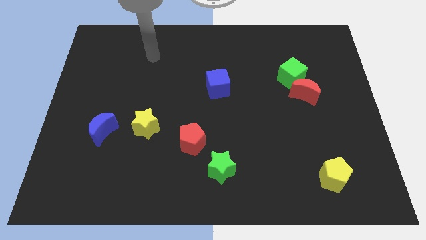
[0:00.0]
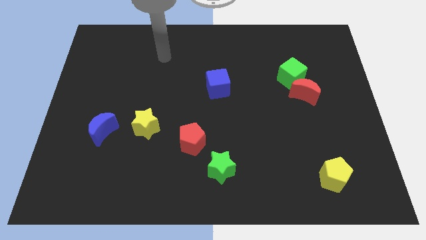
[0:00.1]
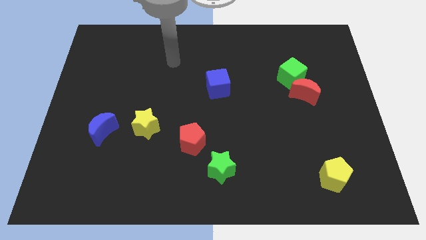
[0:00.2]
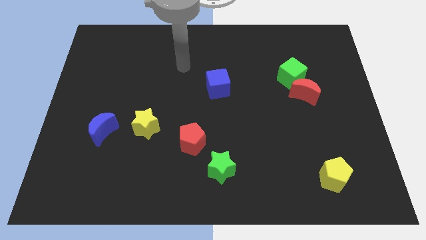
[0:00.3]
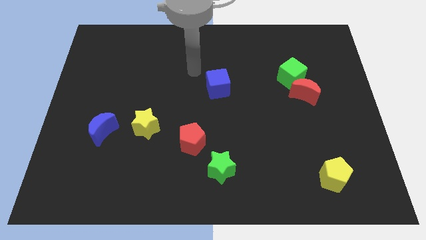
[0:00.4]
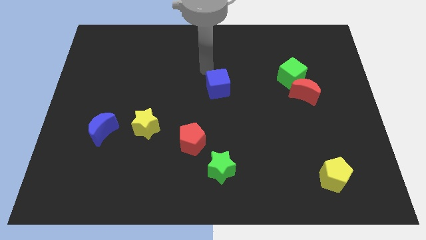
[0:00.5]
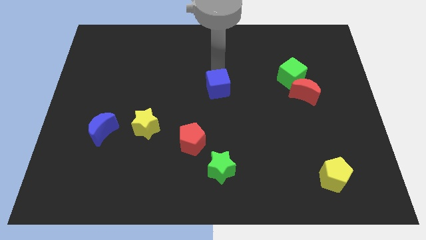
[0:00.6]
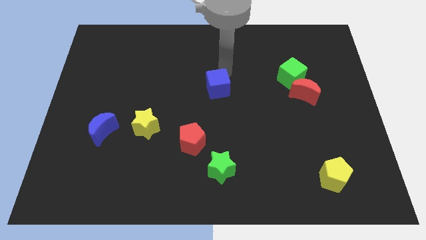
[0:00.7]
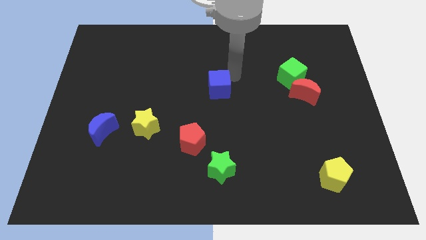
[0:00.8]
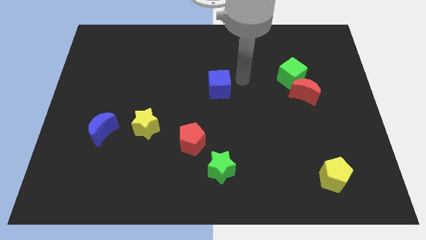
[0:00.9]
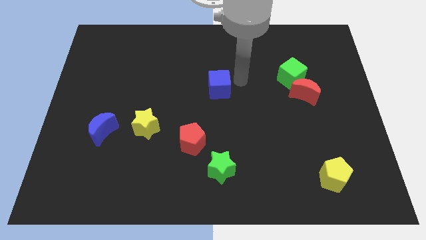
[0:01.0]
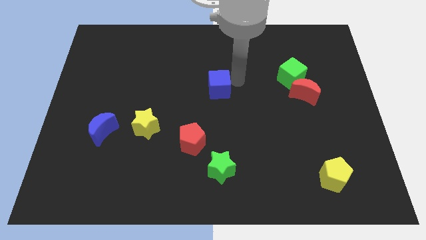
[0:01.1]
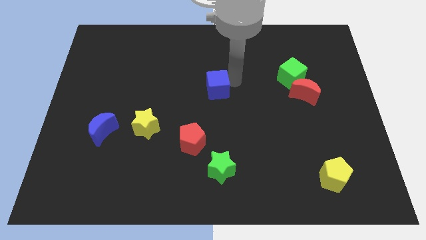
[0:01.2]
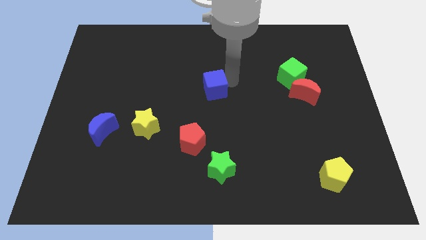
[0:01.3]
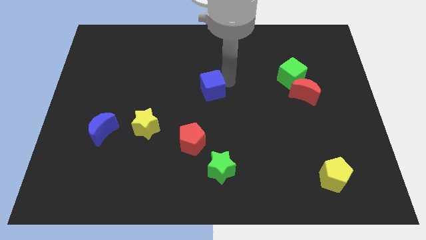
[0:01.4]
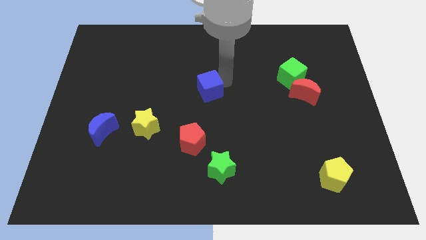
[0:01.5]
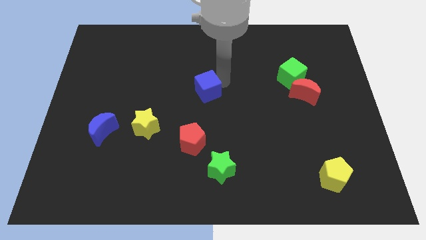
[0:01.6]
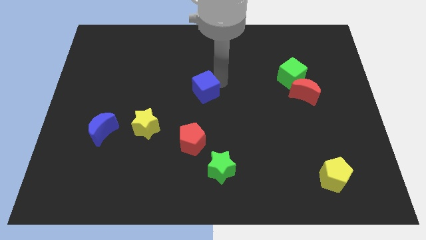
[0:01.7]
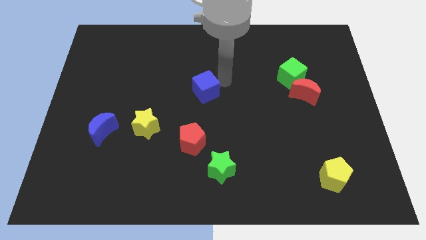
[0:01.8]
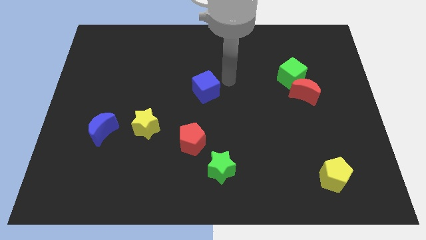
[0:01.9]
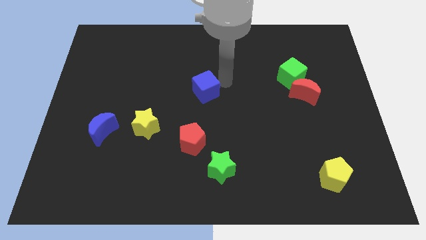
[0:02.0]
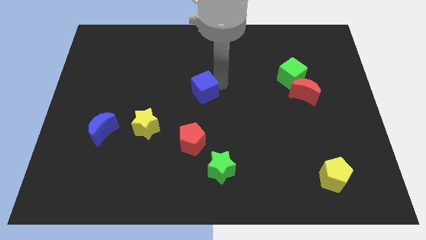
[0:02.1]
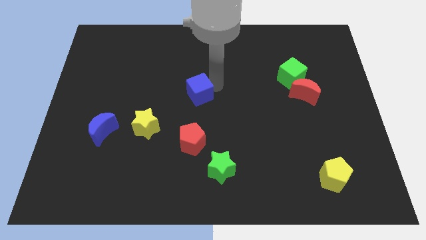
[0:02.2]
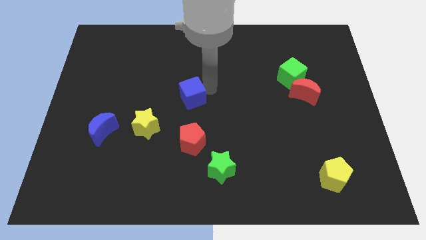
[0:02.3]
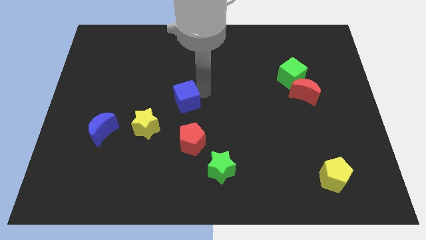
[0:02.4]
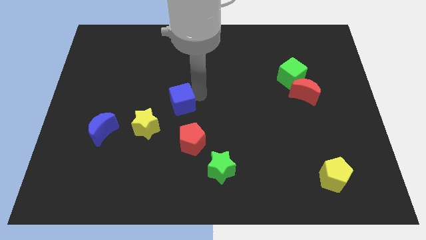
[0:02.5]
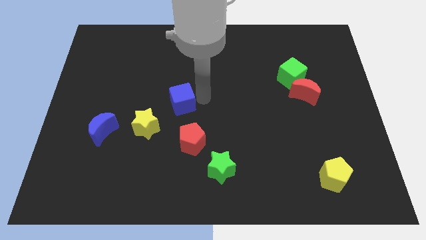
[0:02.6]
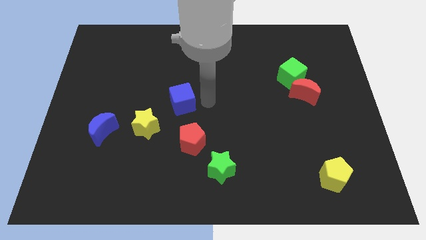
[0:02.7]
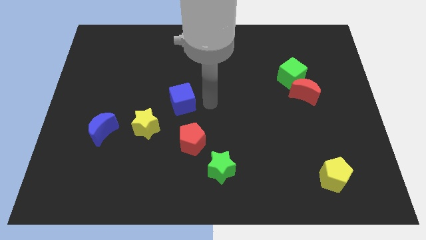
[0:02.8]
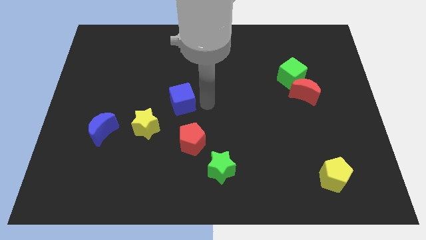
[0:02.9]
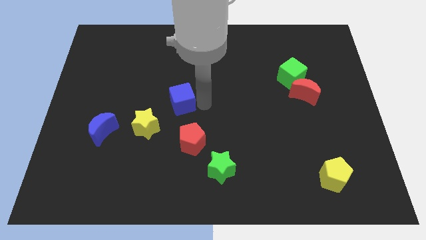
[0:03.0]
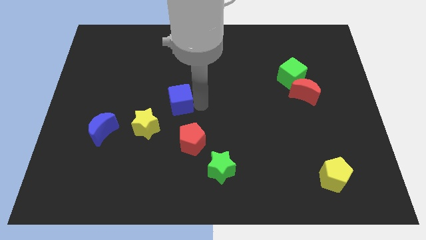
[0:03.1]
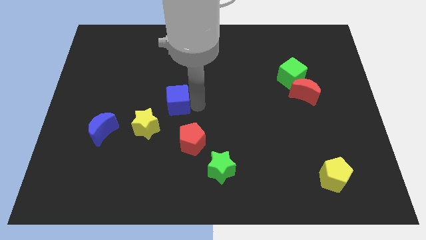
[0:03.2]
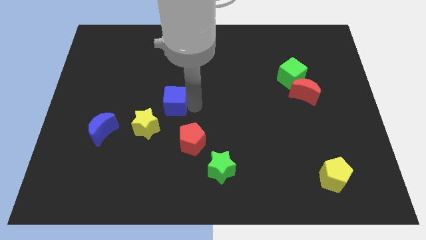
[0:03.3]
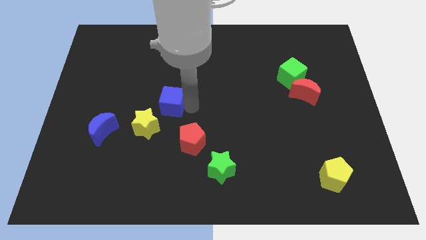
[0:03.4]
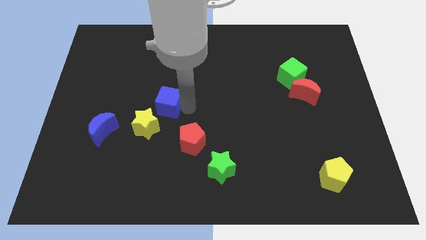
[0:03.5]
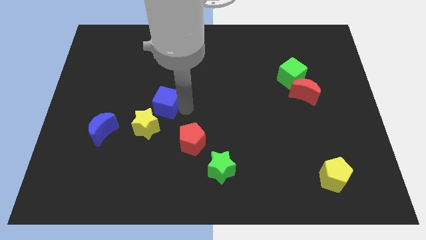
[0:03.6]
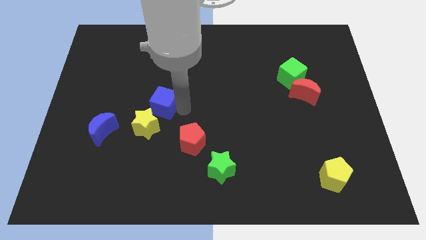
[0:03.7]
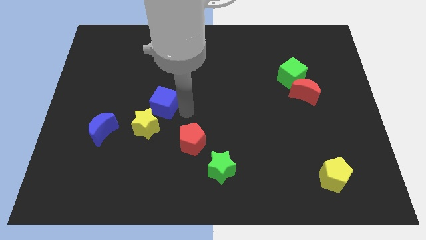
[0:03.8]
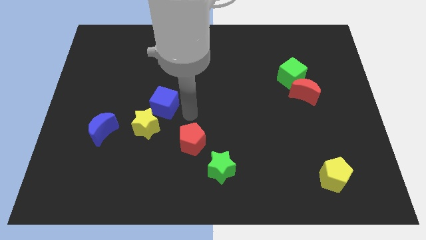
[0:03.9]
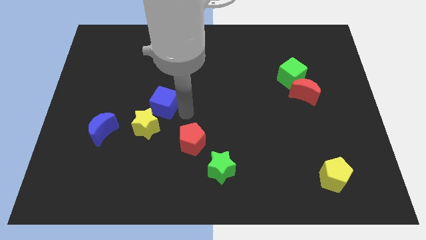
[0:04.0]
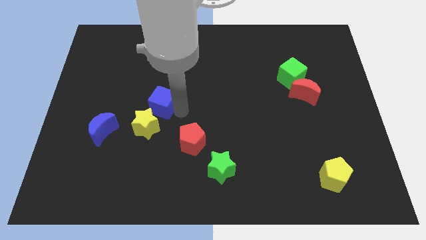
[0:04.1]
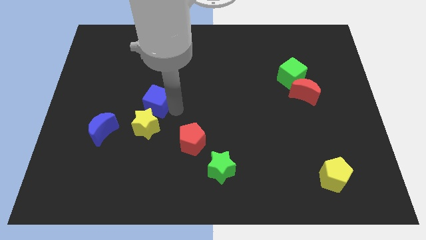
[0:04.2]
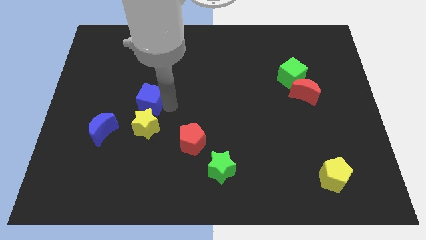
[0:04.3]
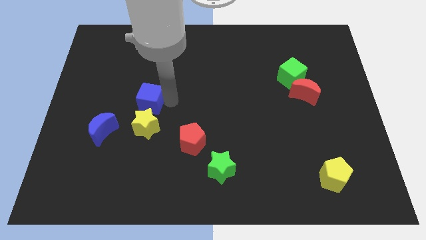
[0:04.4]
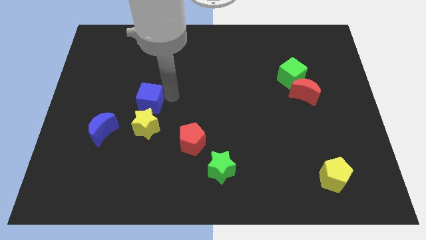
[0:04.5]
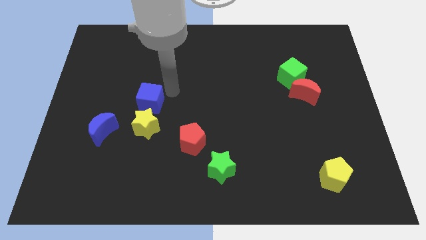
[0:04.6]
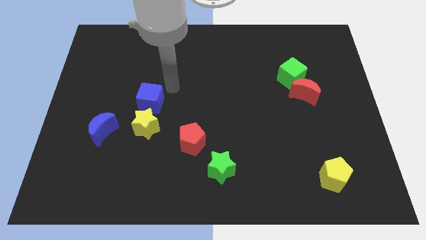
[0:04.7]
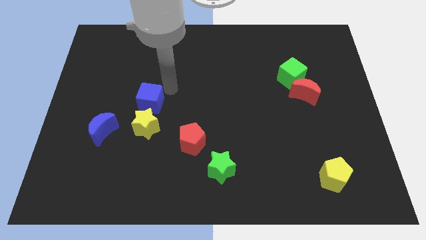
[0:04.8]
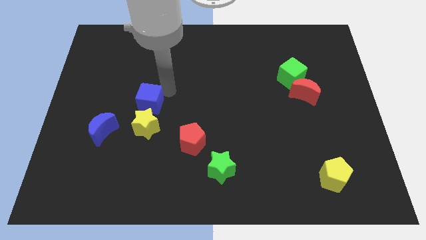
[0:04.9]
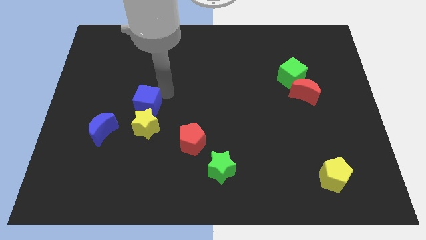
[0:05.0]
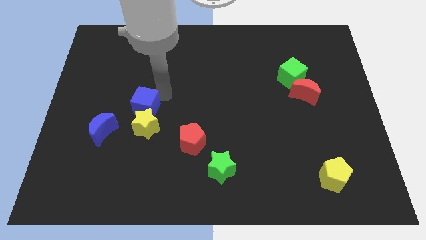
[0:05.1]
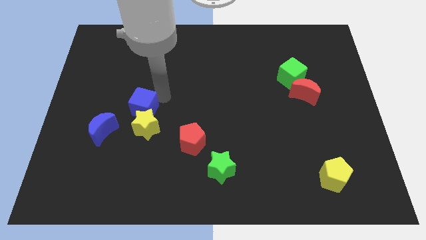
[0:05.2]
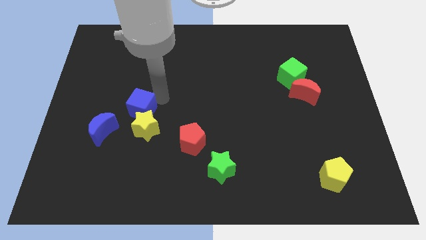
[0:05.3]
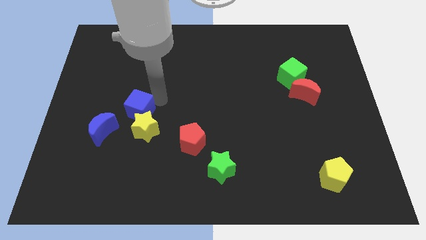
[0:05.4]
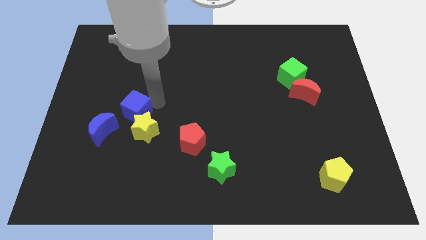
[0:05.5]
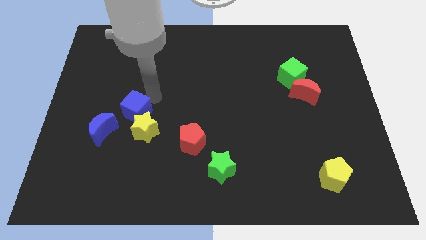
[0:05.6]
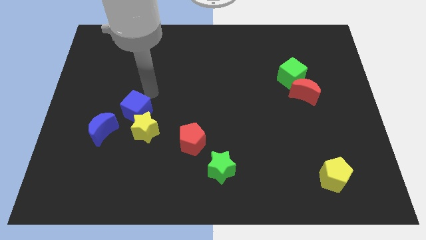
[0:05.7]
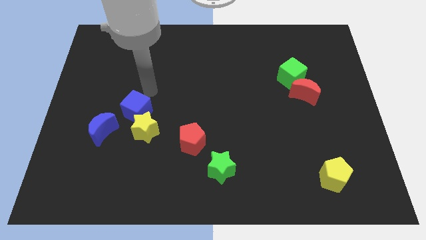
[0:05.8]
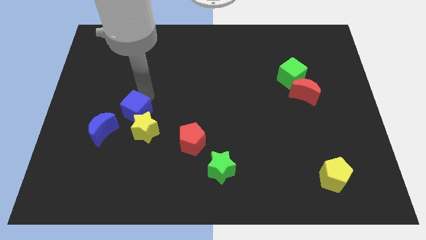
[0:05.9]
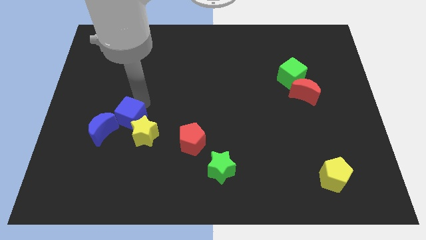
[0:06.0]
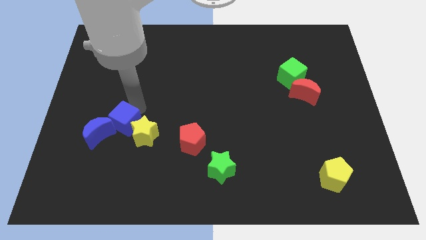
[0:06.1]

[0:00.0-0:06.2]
move the blue cube down and then to the left

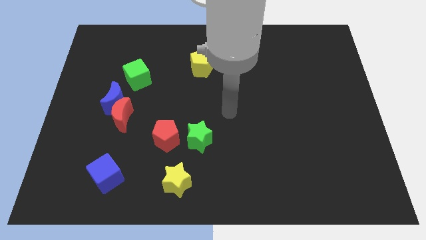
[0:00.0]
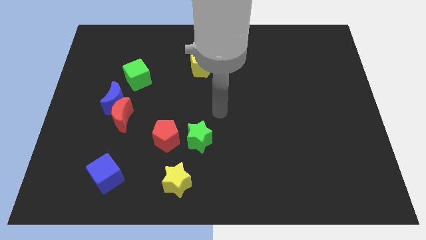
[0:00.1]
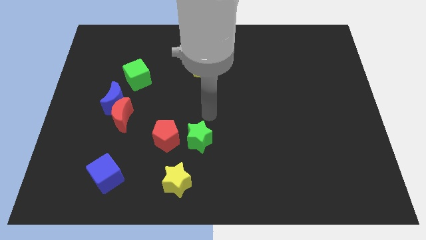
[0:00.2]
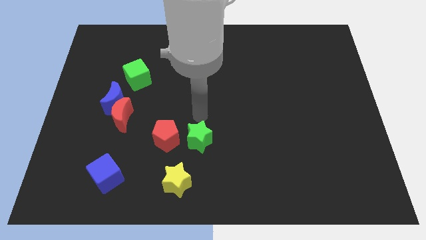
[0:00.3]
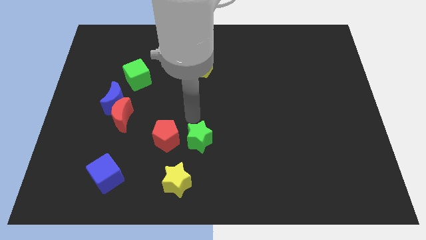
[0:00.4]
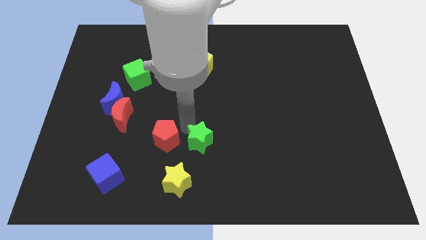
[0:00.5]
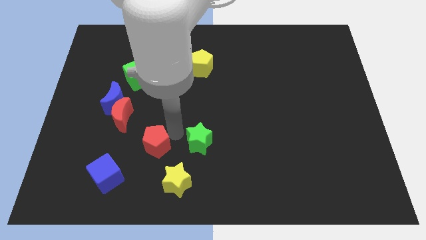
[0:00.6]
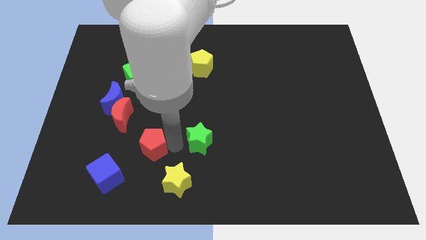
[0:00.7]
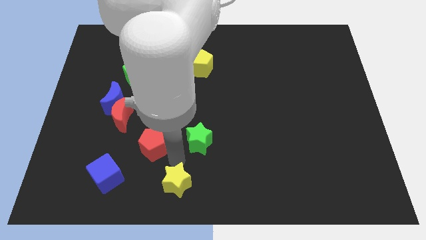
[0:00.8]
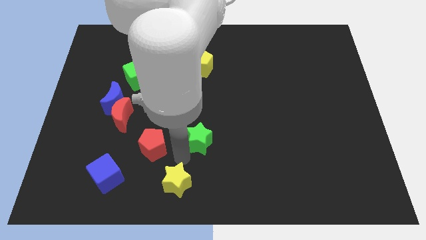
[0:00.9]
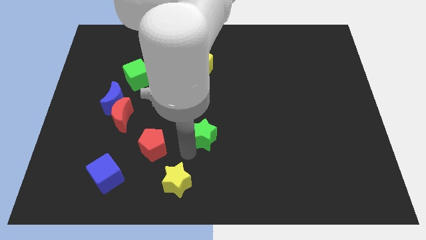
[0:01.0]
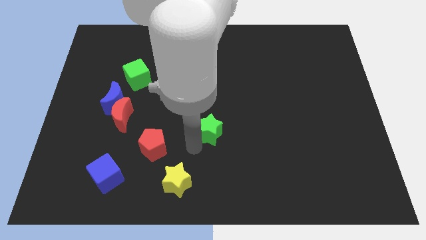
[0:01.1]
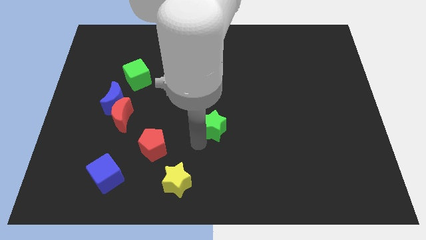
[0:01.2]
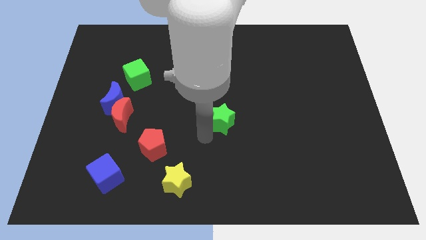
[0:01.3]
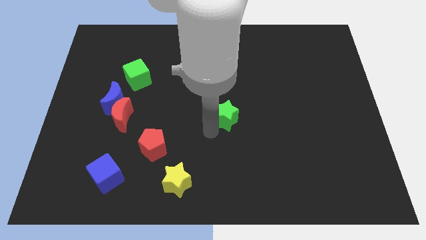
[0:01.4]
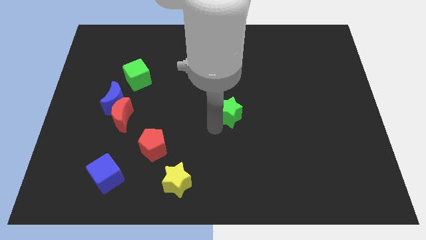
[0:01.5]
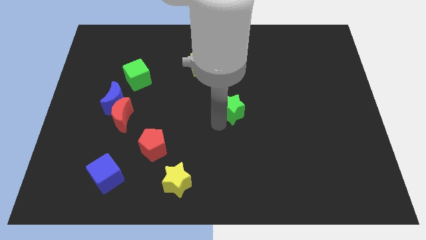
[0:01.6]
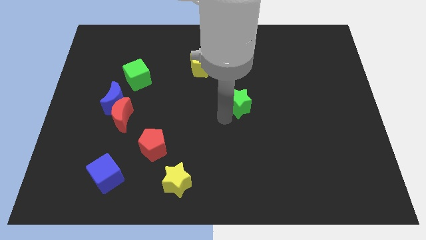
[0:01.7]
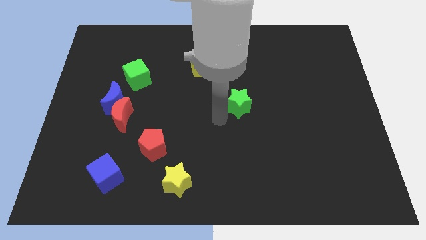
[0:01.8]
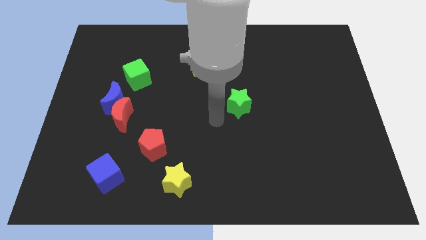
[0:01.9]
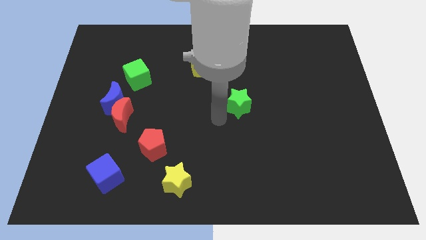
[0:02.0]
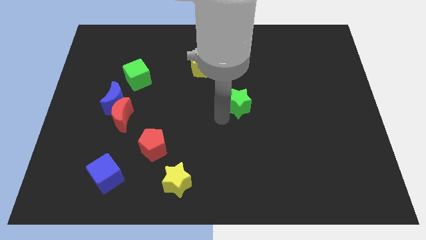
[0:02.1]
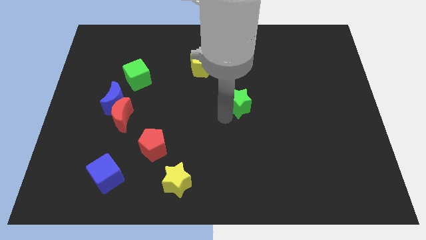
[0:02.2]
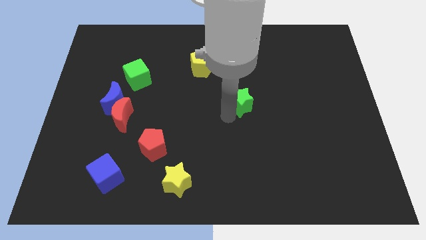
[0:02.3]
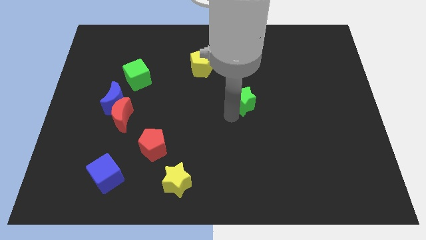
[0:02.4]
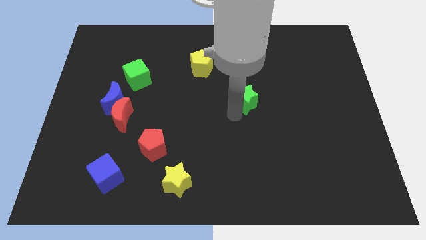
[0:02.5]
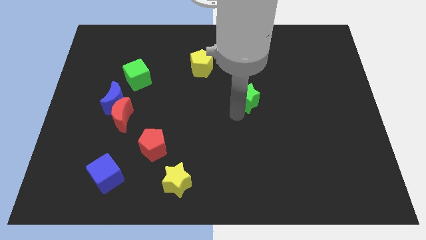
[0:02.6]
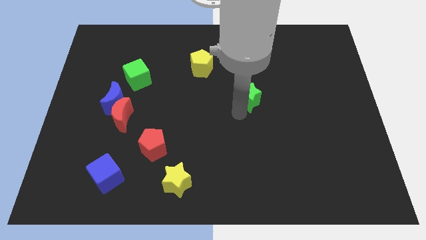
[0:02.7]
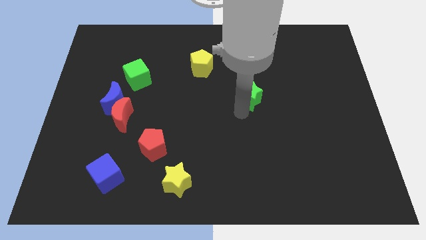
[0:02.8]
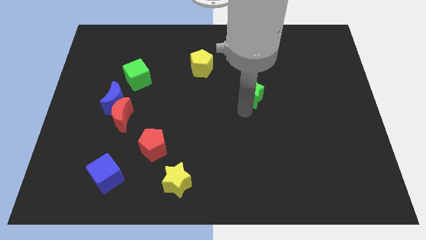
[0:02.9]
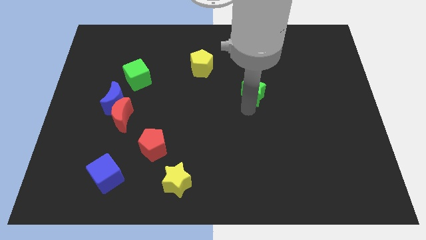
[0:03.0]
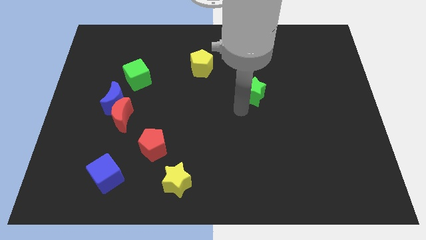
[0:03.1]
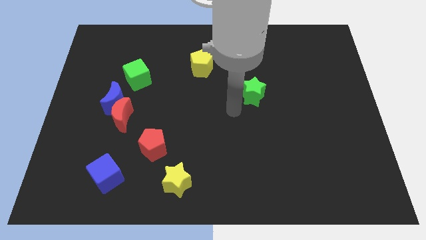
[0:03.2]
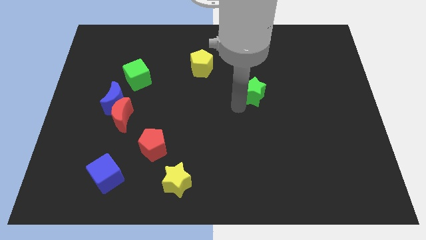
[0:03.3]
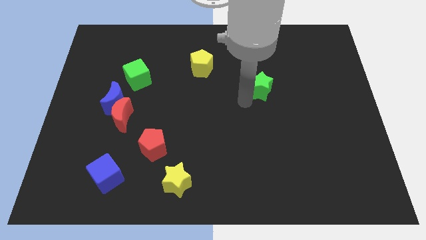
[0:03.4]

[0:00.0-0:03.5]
move the green star upwards and then to the right
